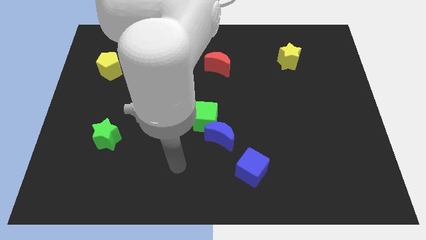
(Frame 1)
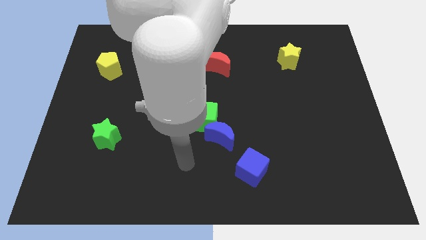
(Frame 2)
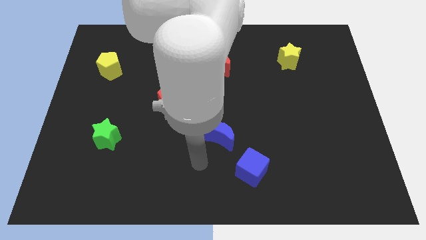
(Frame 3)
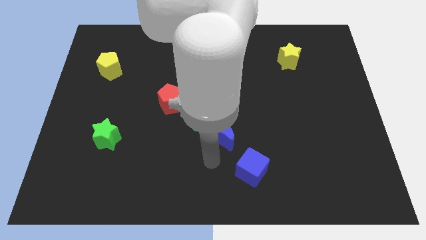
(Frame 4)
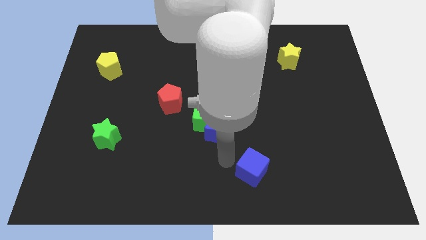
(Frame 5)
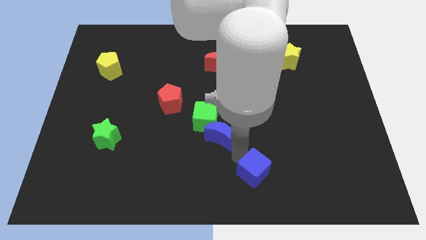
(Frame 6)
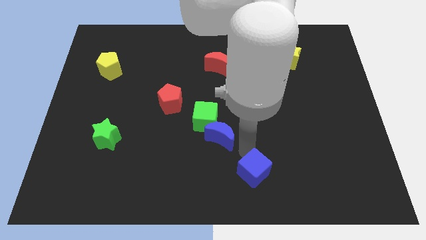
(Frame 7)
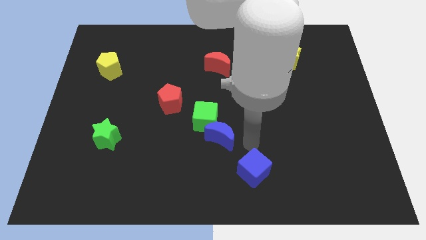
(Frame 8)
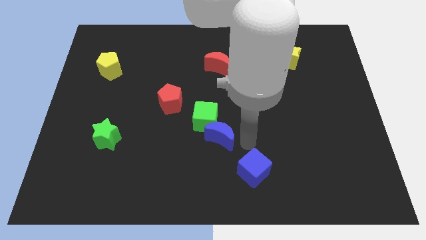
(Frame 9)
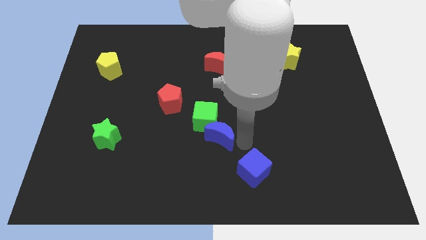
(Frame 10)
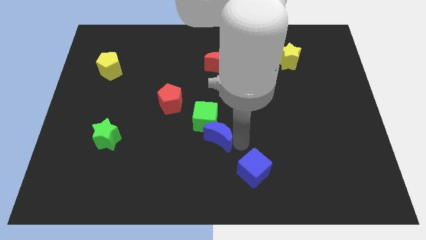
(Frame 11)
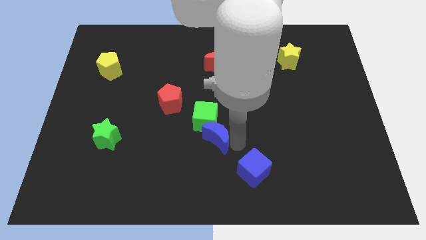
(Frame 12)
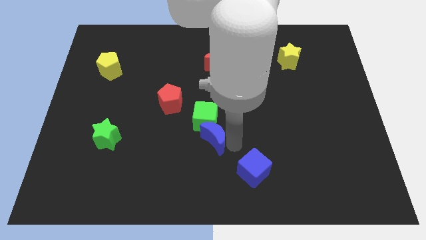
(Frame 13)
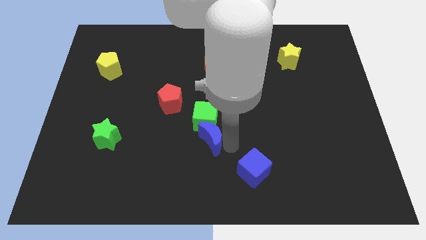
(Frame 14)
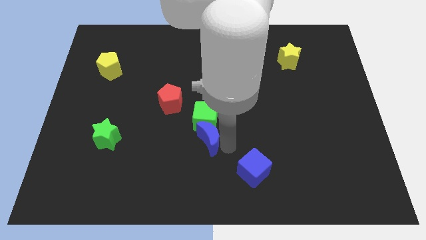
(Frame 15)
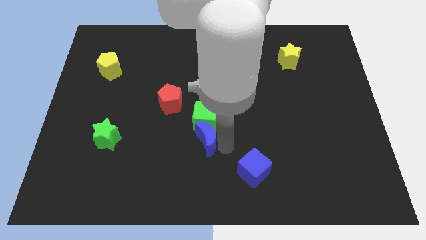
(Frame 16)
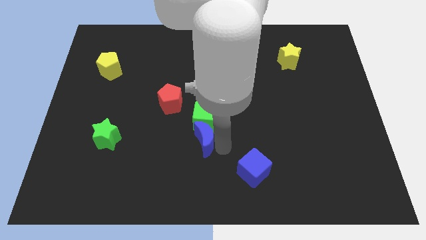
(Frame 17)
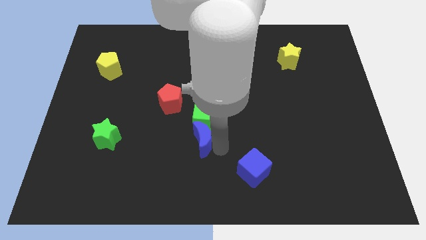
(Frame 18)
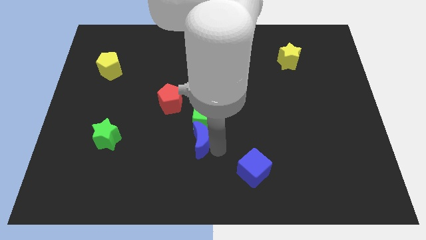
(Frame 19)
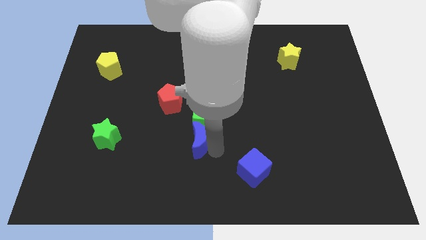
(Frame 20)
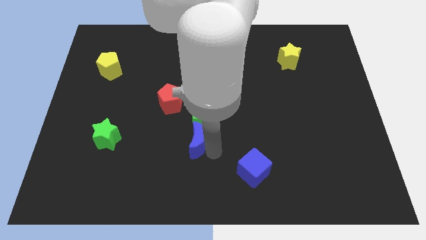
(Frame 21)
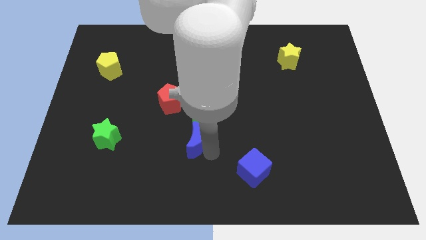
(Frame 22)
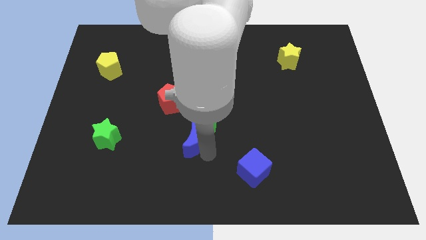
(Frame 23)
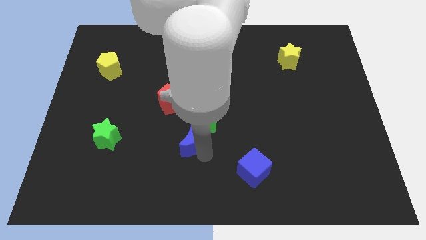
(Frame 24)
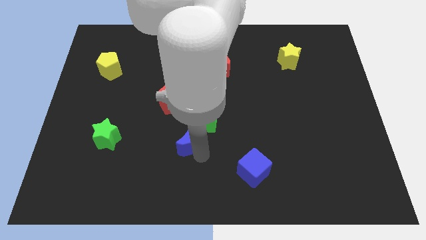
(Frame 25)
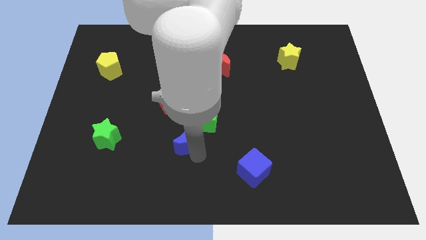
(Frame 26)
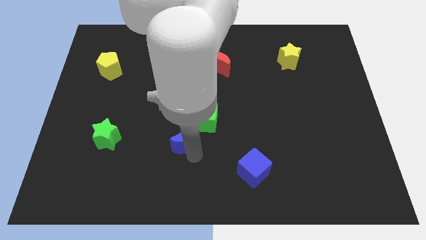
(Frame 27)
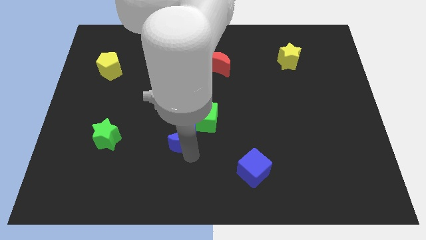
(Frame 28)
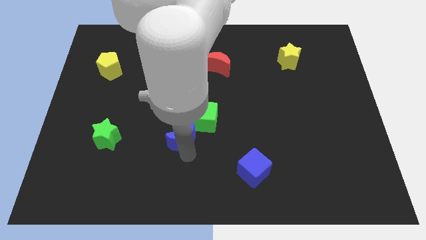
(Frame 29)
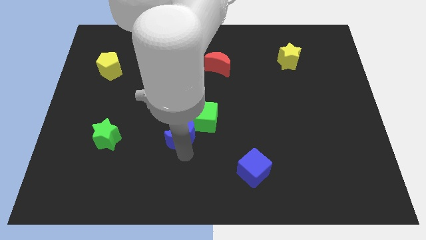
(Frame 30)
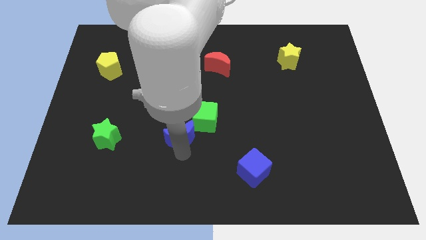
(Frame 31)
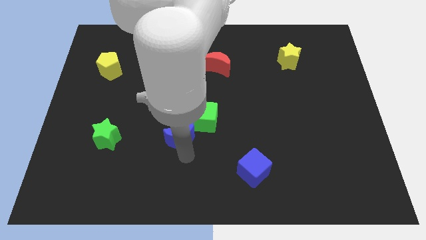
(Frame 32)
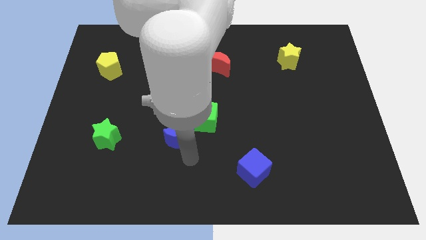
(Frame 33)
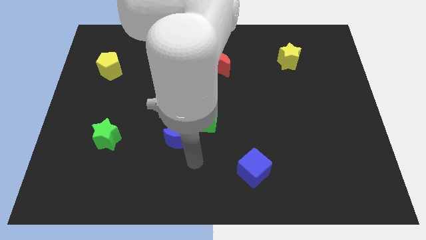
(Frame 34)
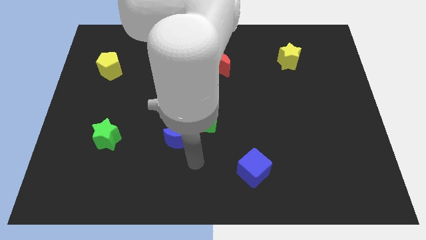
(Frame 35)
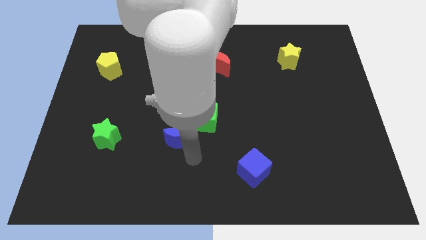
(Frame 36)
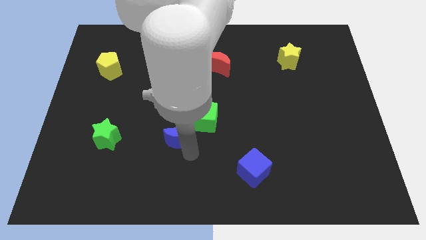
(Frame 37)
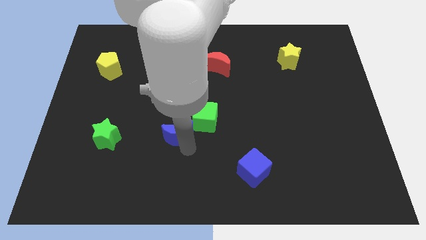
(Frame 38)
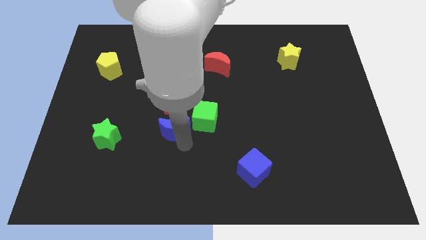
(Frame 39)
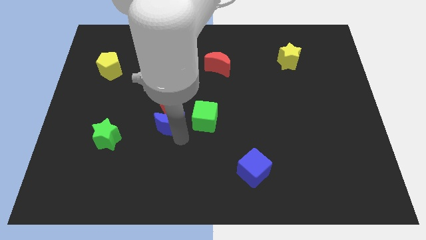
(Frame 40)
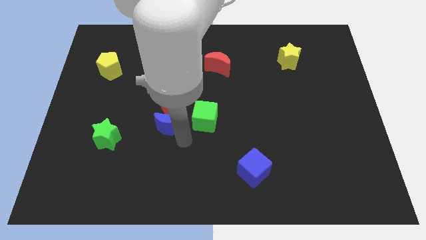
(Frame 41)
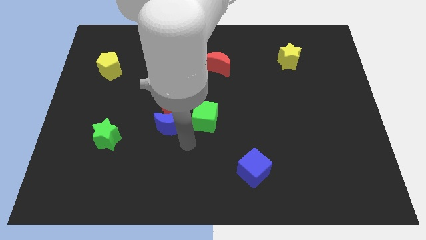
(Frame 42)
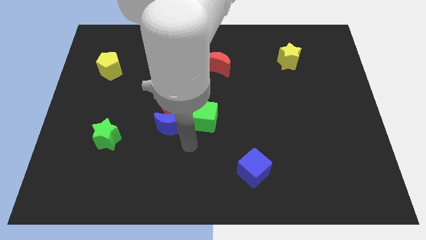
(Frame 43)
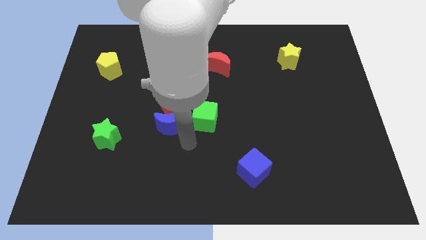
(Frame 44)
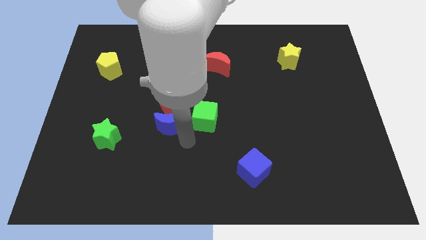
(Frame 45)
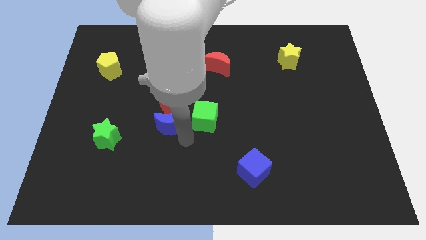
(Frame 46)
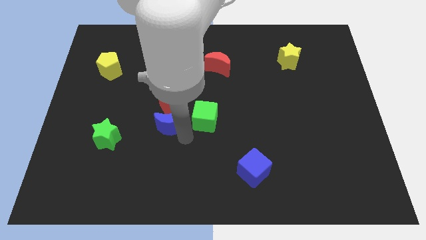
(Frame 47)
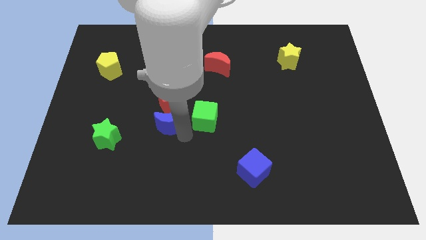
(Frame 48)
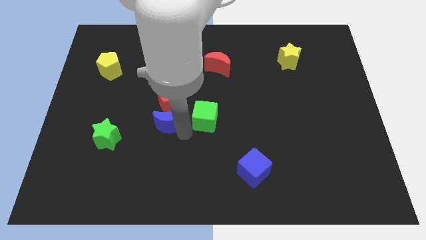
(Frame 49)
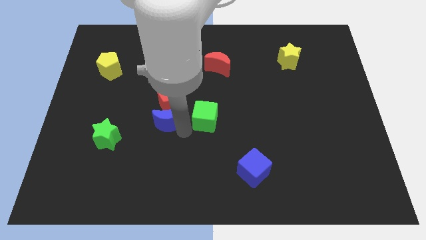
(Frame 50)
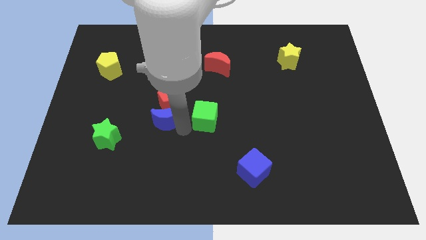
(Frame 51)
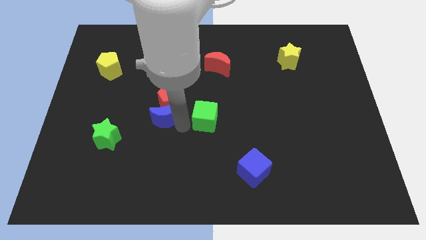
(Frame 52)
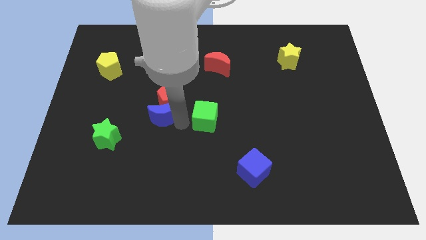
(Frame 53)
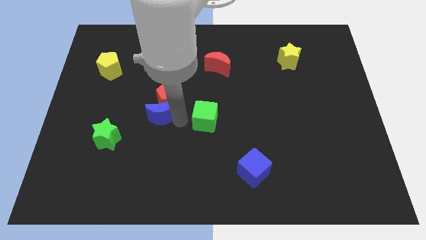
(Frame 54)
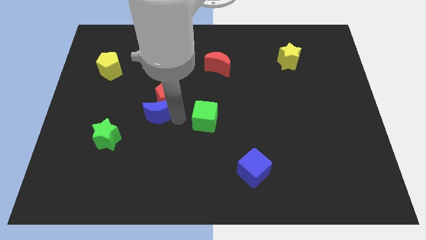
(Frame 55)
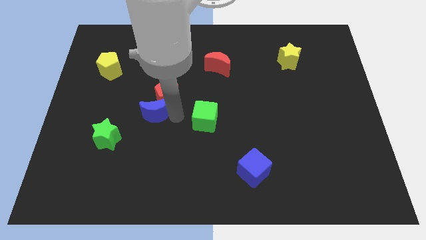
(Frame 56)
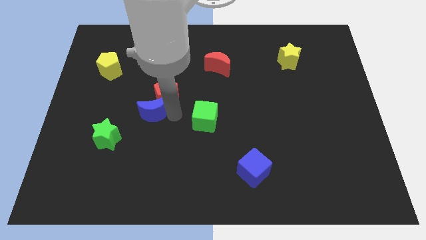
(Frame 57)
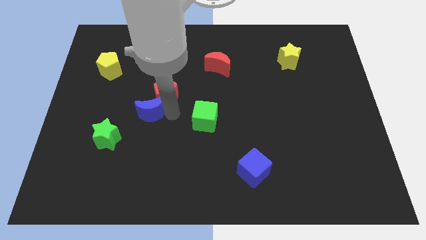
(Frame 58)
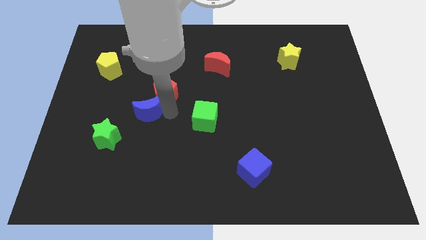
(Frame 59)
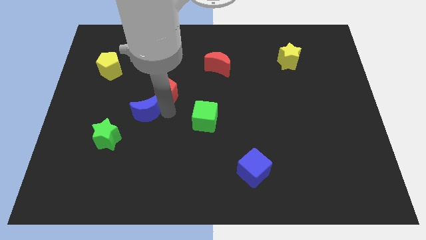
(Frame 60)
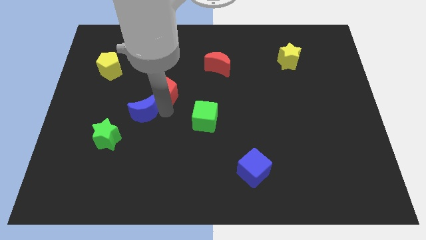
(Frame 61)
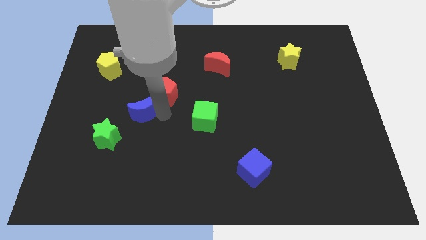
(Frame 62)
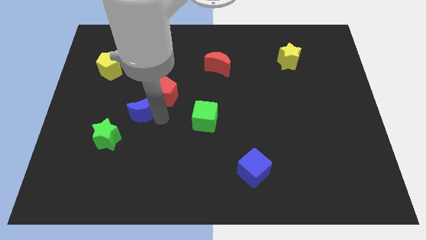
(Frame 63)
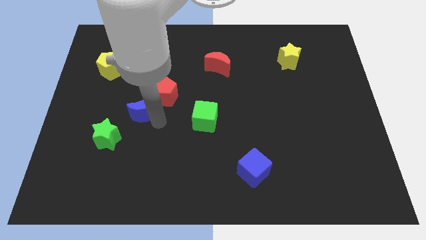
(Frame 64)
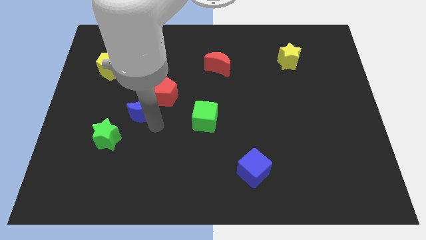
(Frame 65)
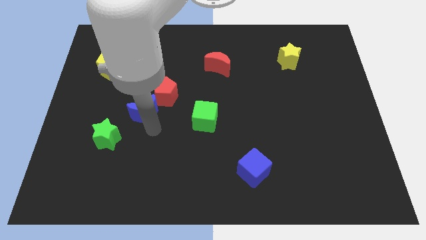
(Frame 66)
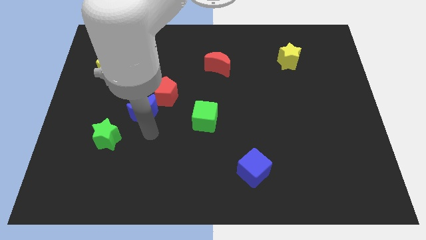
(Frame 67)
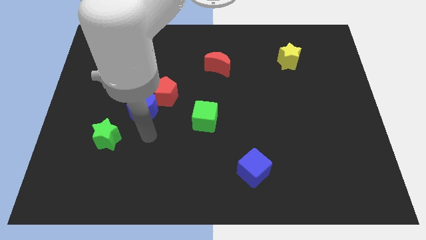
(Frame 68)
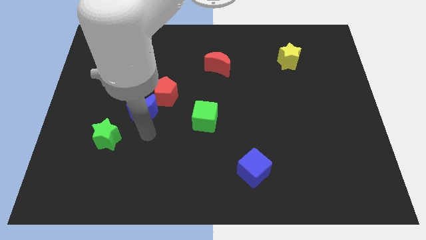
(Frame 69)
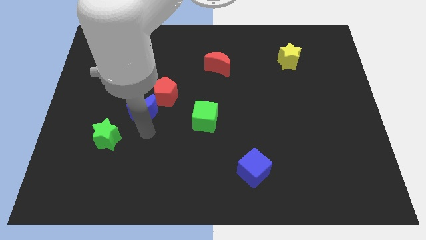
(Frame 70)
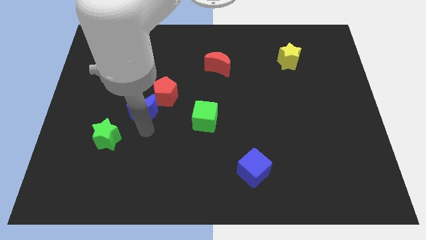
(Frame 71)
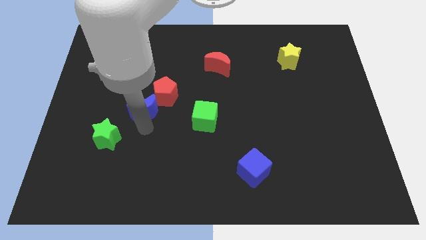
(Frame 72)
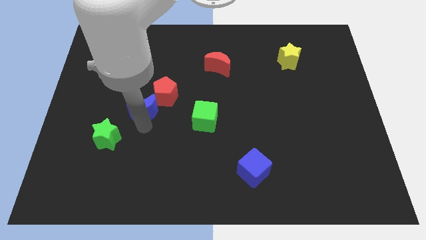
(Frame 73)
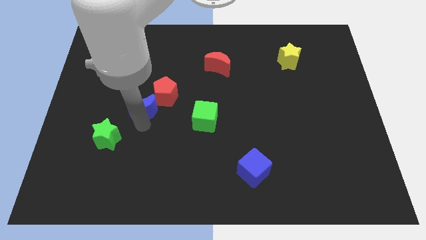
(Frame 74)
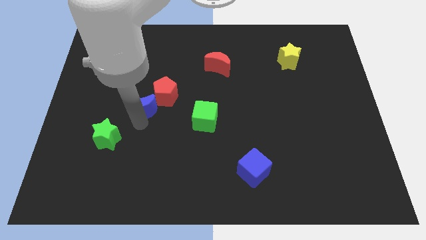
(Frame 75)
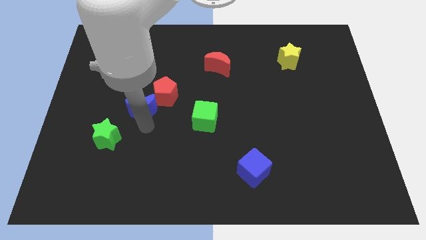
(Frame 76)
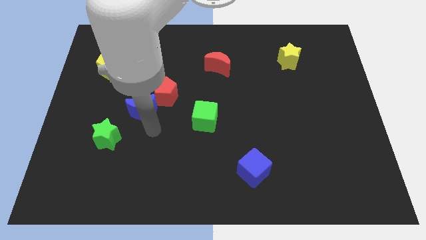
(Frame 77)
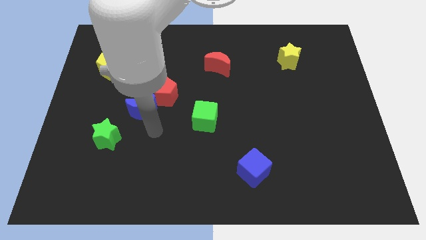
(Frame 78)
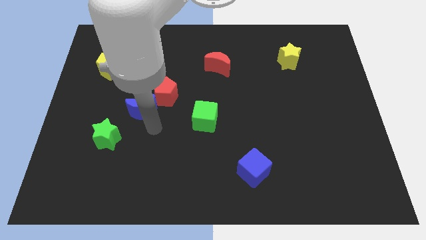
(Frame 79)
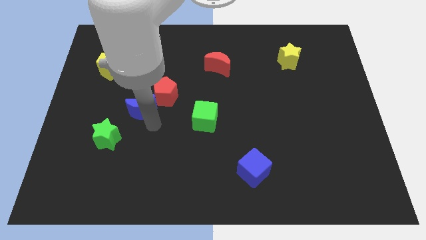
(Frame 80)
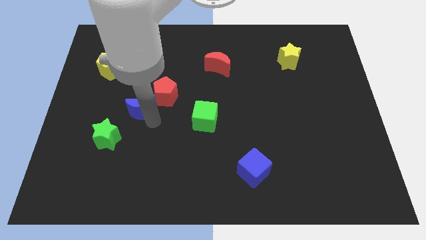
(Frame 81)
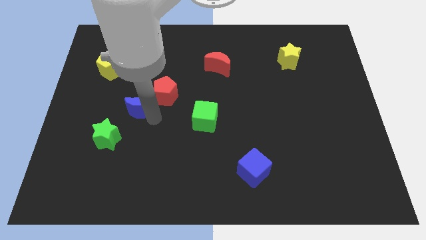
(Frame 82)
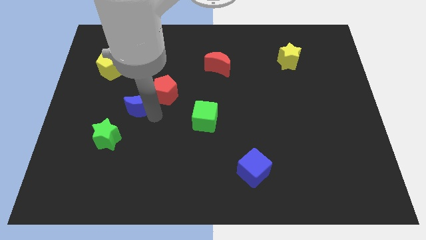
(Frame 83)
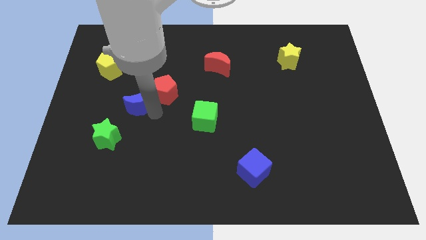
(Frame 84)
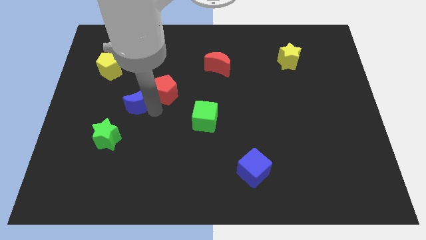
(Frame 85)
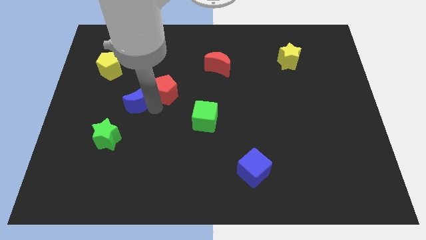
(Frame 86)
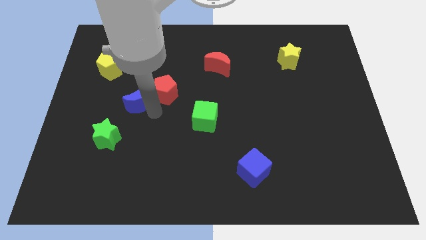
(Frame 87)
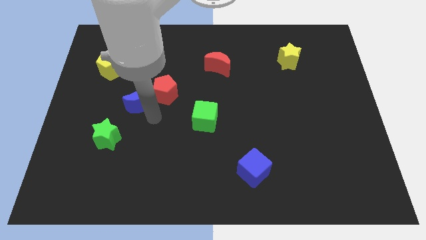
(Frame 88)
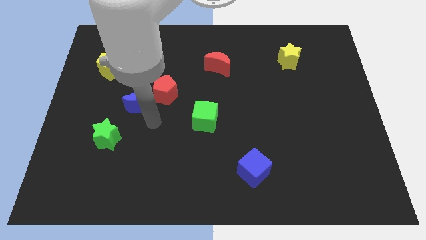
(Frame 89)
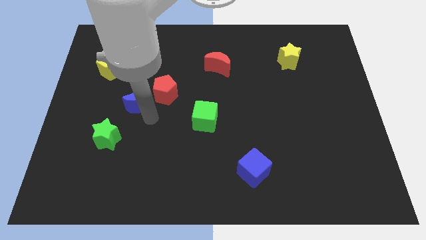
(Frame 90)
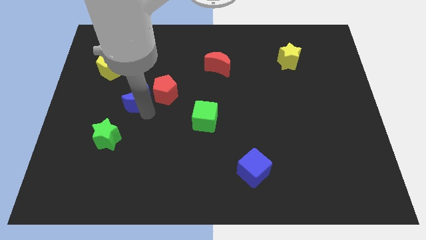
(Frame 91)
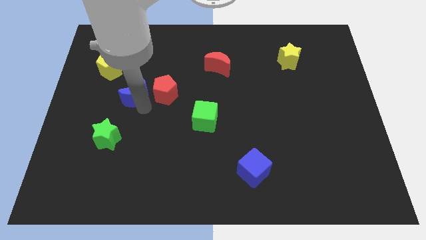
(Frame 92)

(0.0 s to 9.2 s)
push the blue moon to the bottom right side of the yellow pentagon
